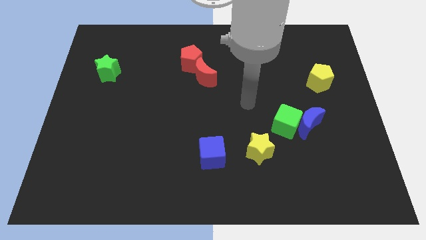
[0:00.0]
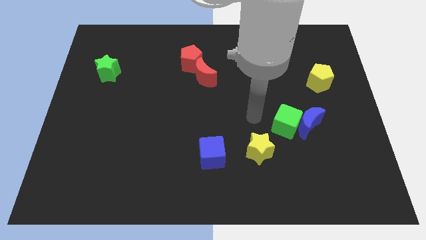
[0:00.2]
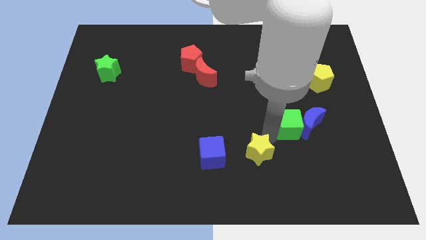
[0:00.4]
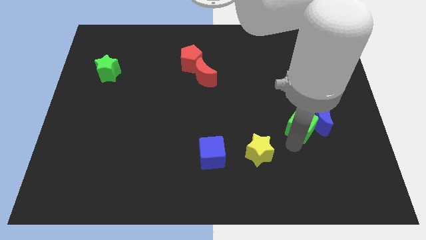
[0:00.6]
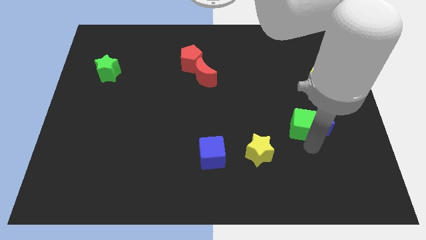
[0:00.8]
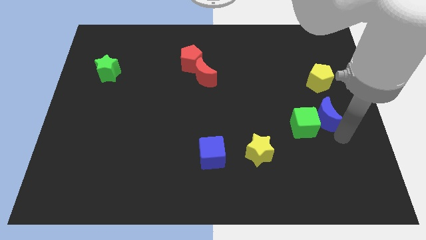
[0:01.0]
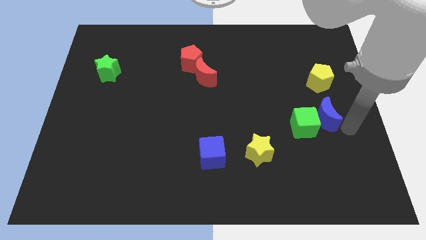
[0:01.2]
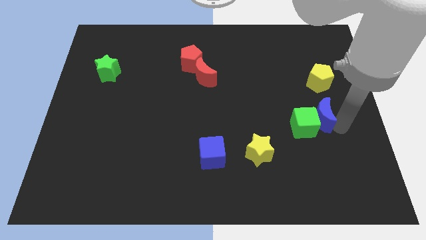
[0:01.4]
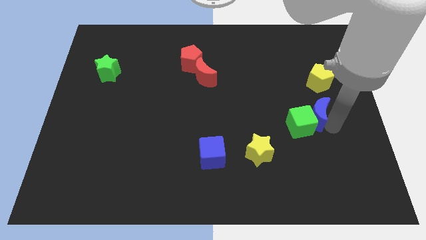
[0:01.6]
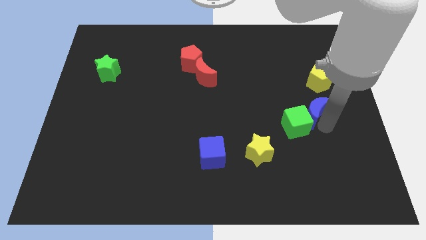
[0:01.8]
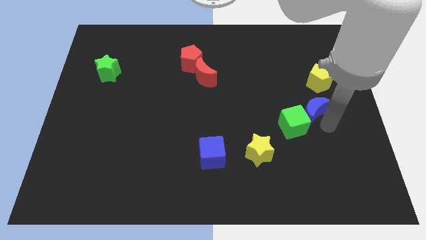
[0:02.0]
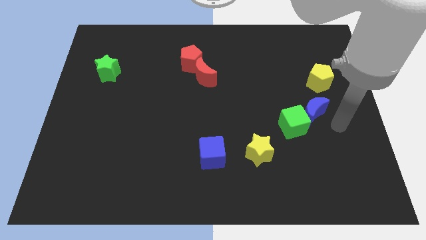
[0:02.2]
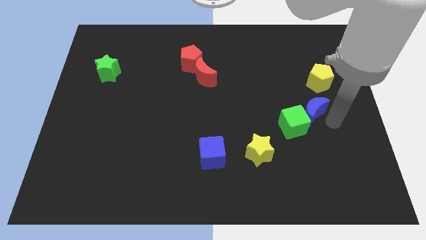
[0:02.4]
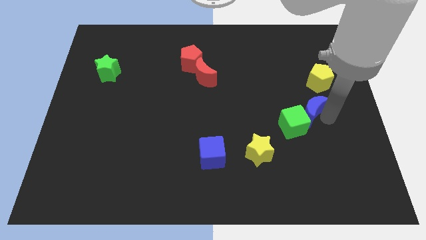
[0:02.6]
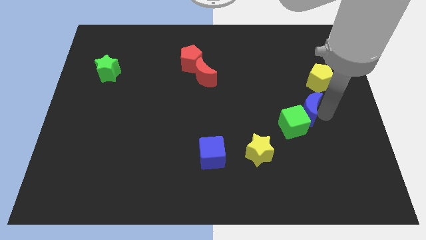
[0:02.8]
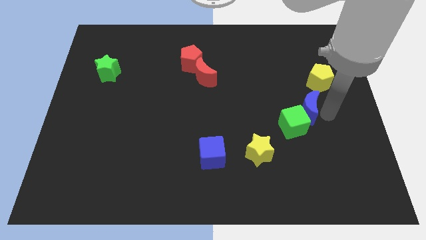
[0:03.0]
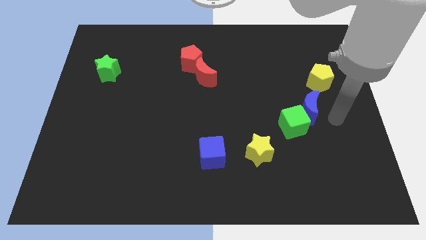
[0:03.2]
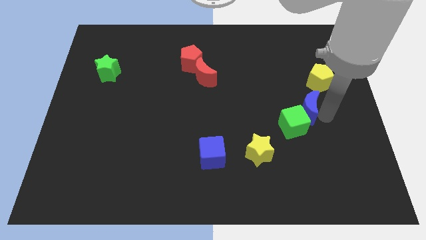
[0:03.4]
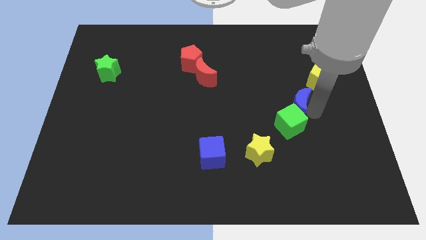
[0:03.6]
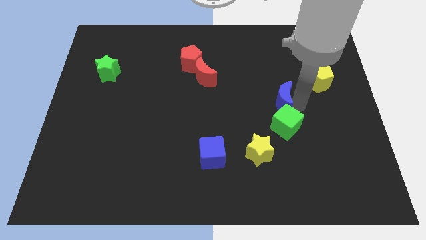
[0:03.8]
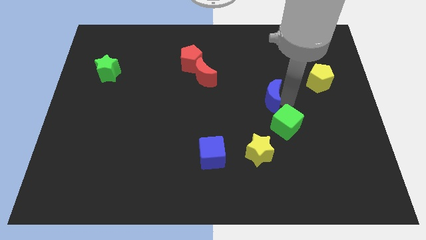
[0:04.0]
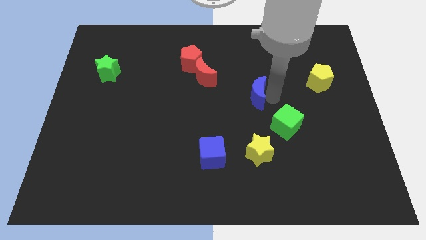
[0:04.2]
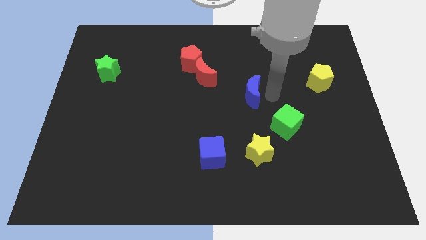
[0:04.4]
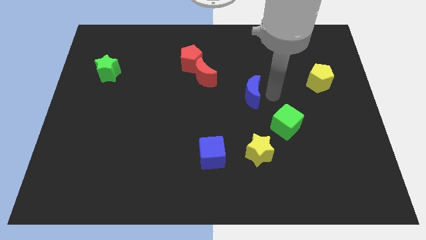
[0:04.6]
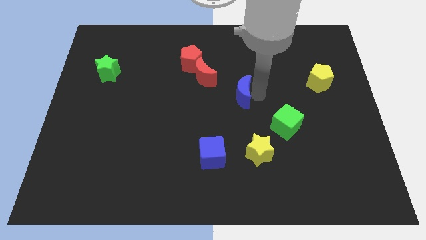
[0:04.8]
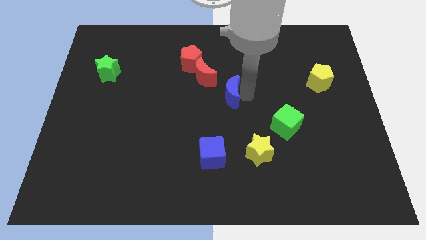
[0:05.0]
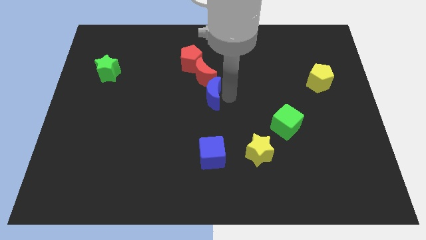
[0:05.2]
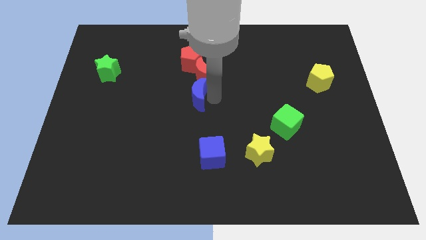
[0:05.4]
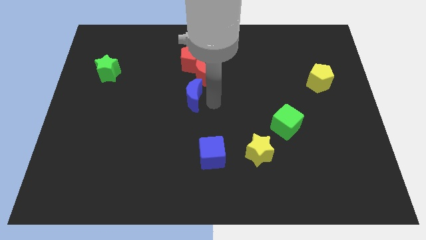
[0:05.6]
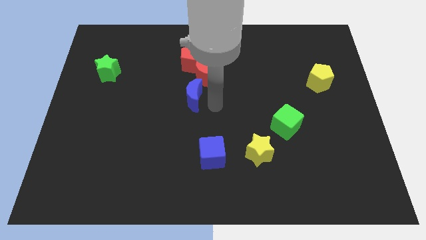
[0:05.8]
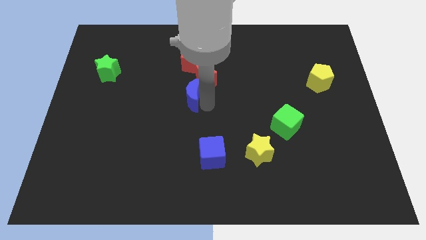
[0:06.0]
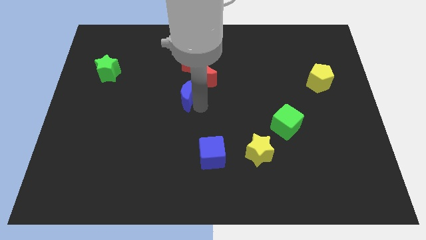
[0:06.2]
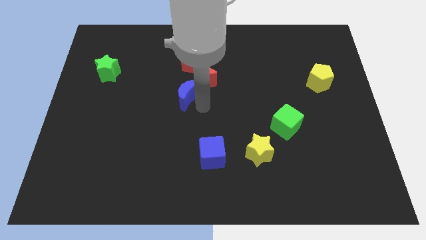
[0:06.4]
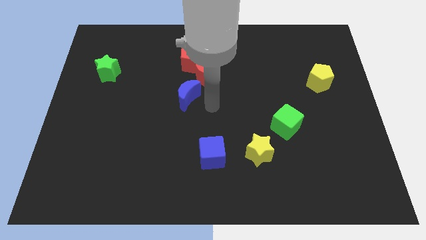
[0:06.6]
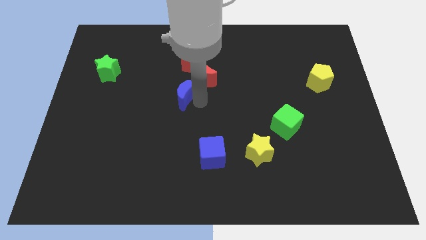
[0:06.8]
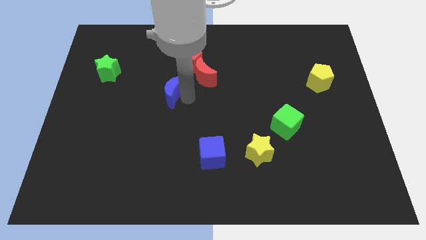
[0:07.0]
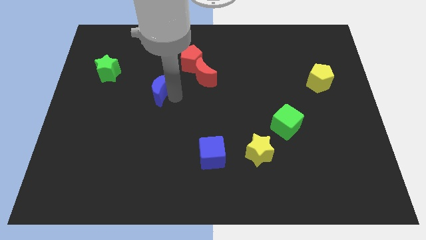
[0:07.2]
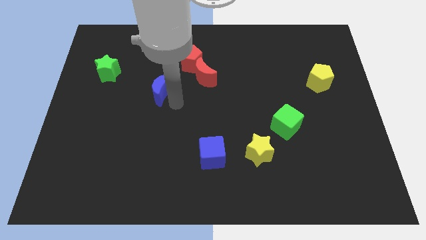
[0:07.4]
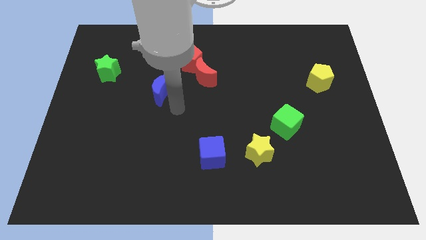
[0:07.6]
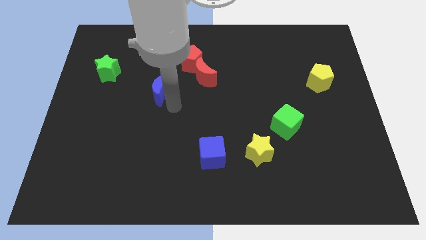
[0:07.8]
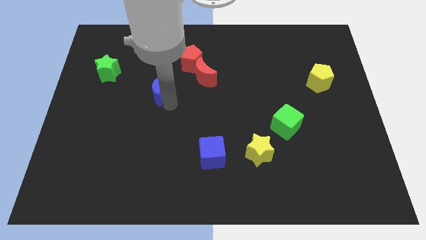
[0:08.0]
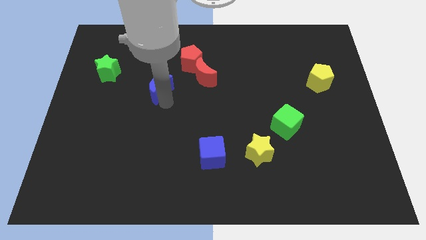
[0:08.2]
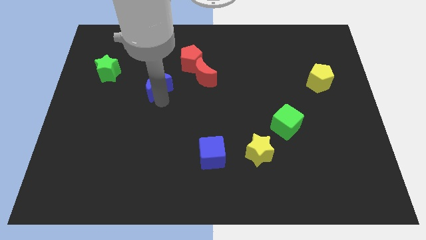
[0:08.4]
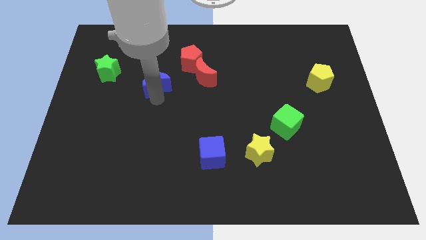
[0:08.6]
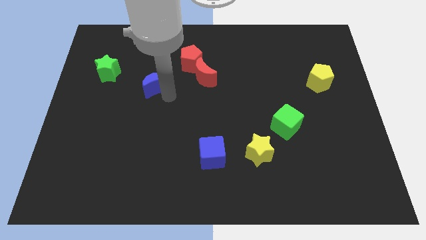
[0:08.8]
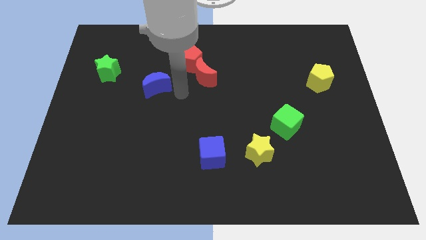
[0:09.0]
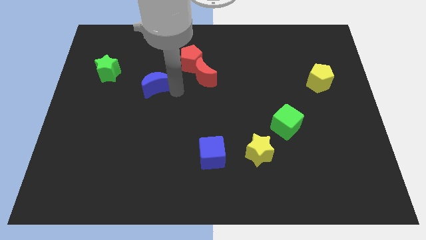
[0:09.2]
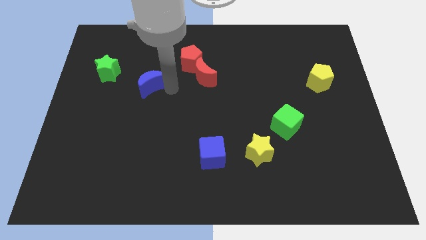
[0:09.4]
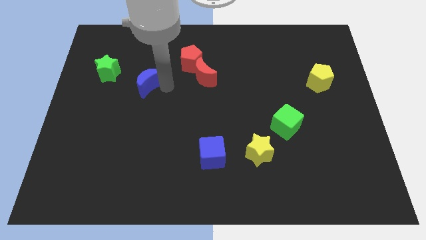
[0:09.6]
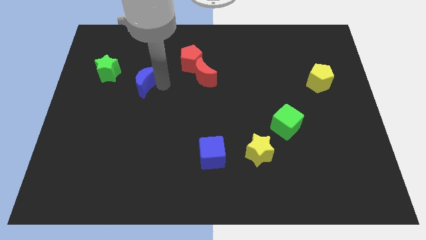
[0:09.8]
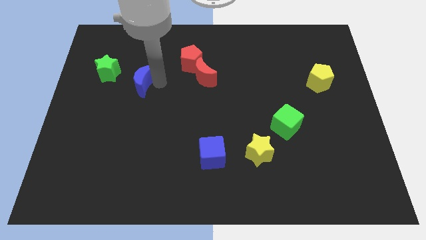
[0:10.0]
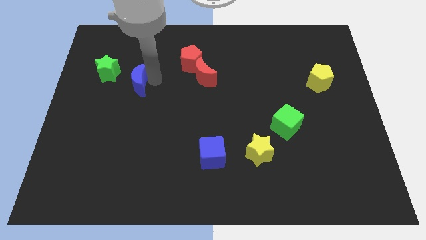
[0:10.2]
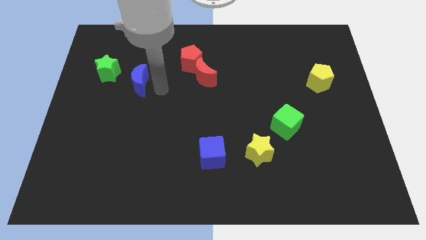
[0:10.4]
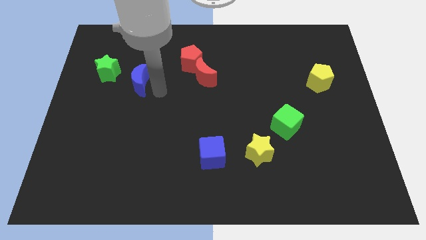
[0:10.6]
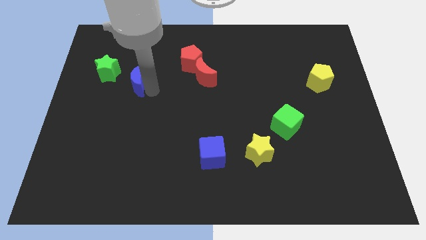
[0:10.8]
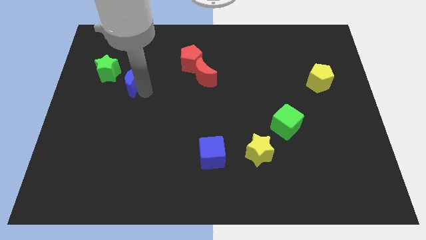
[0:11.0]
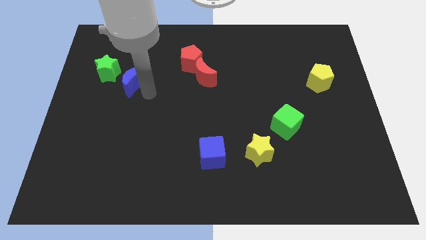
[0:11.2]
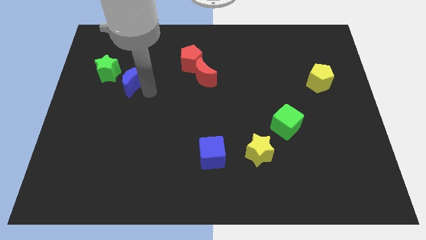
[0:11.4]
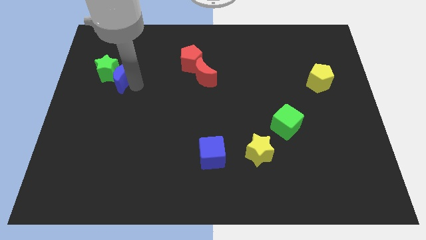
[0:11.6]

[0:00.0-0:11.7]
slide the blue moon close to the green star

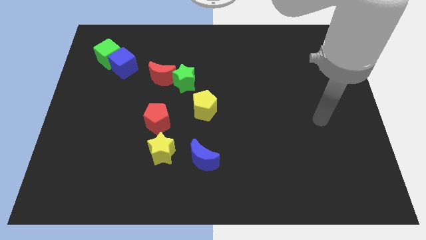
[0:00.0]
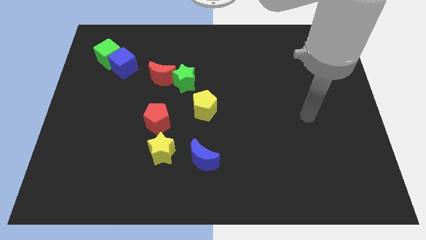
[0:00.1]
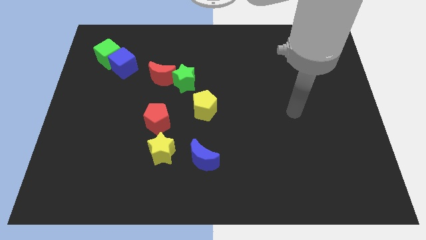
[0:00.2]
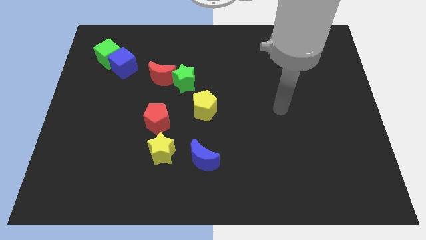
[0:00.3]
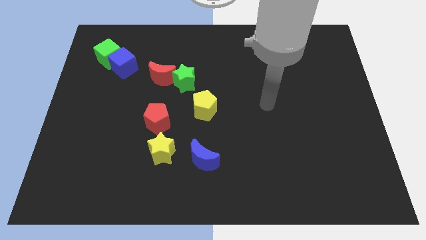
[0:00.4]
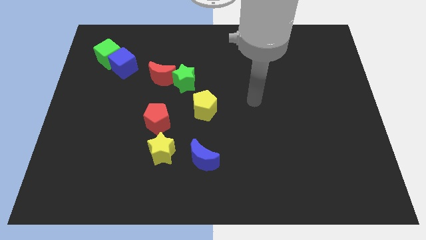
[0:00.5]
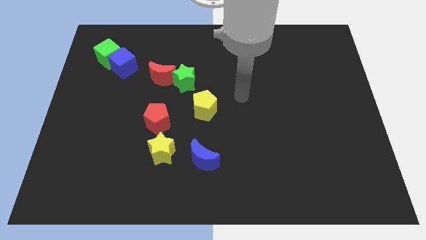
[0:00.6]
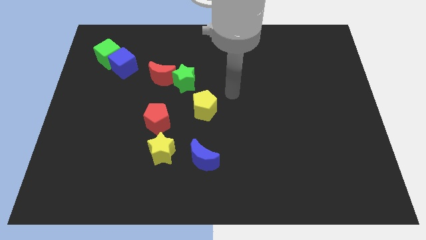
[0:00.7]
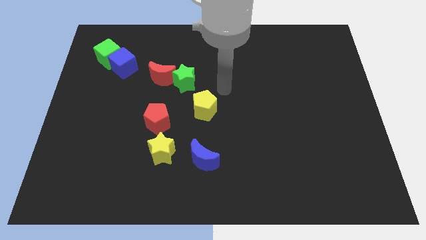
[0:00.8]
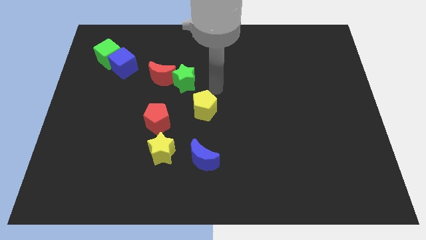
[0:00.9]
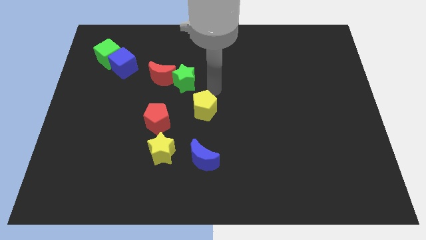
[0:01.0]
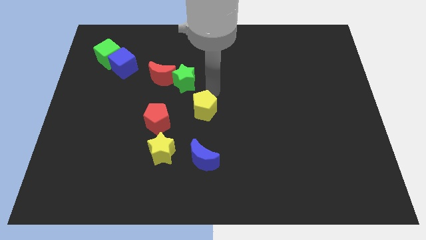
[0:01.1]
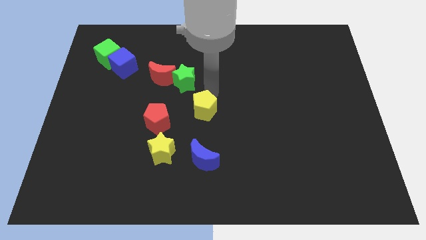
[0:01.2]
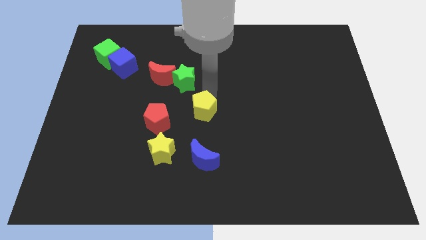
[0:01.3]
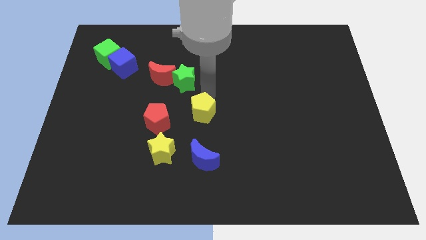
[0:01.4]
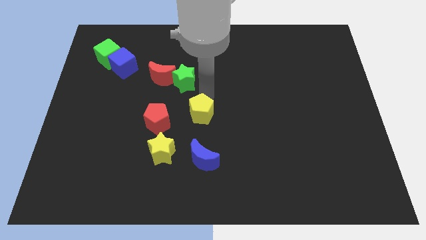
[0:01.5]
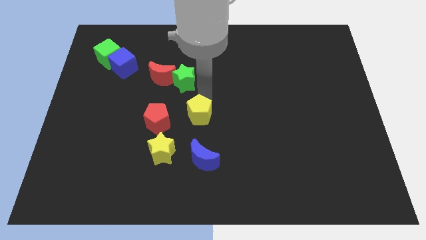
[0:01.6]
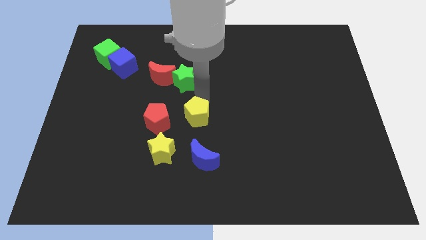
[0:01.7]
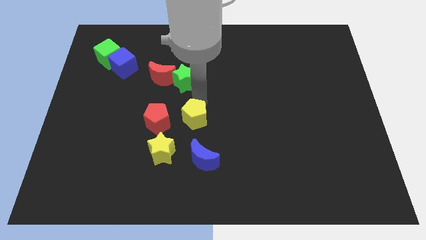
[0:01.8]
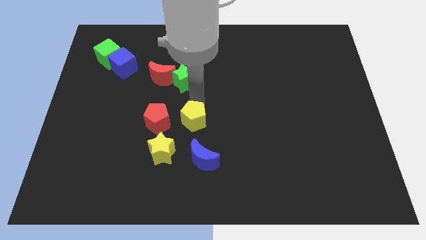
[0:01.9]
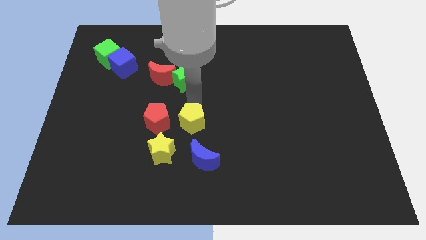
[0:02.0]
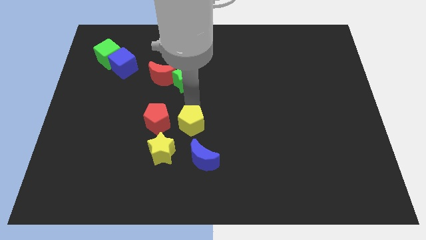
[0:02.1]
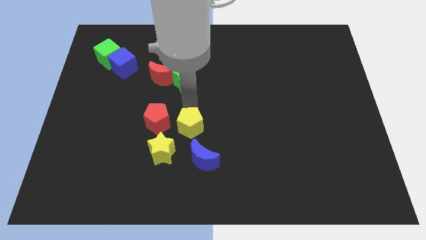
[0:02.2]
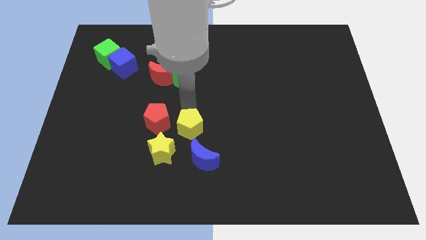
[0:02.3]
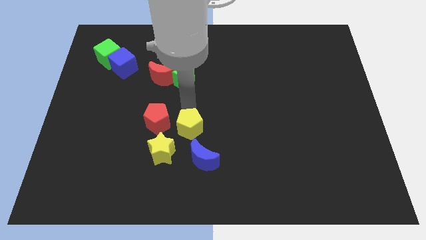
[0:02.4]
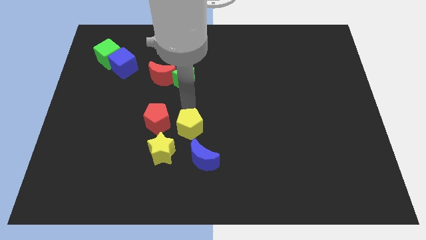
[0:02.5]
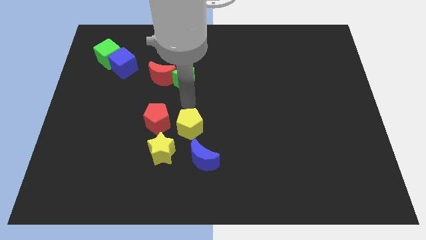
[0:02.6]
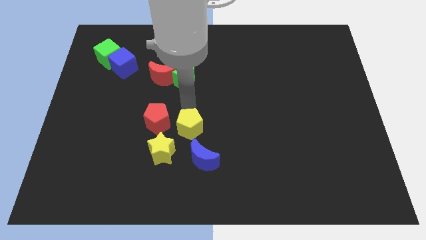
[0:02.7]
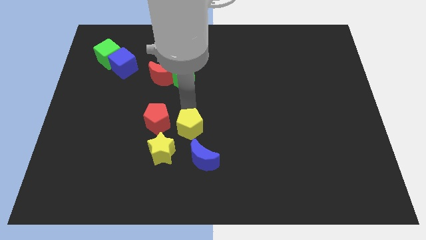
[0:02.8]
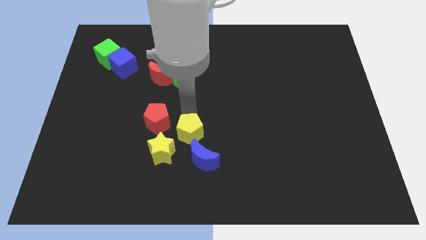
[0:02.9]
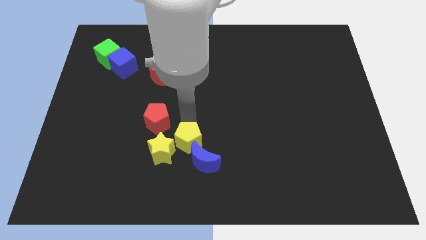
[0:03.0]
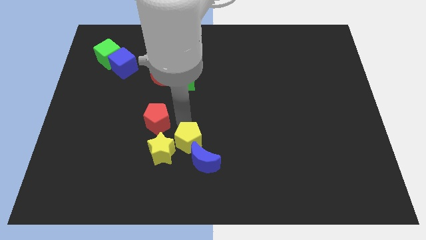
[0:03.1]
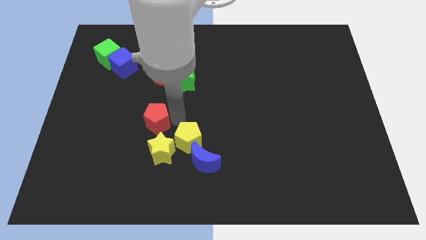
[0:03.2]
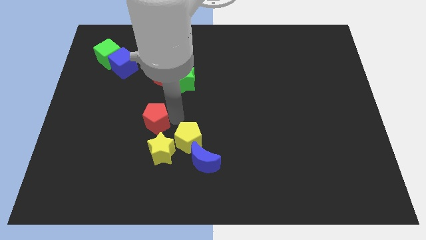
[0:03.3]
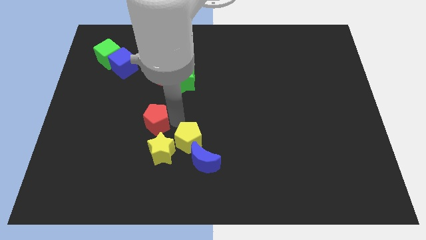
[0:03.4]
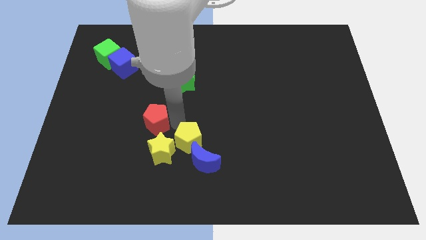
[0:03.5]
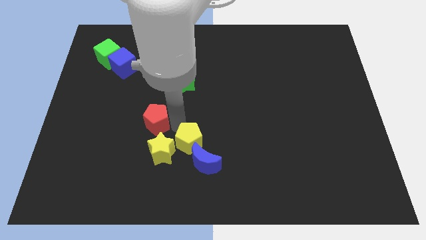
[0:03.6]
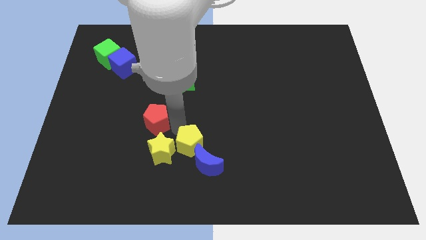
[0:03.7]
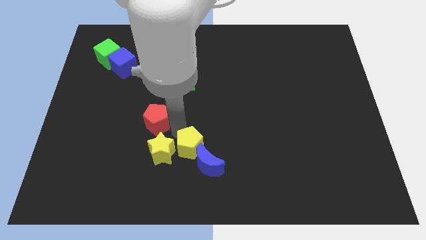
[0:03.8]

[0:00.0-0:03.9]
push the yellow pentagon towards the blue moon
